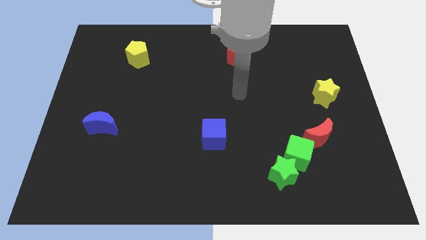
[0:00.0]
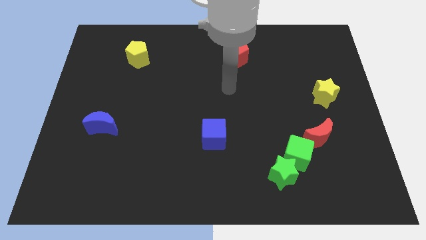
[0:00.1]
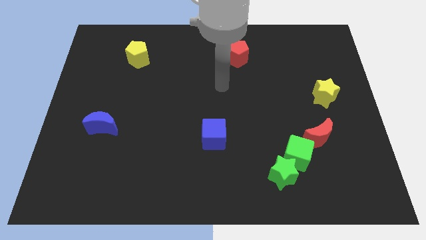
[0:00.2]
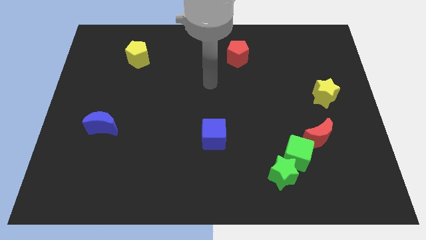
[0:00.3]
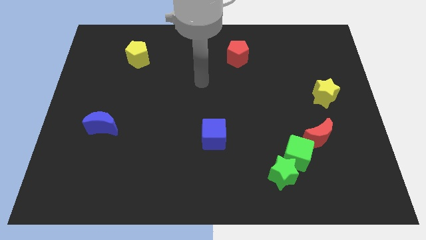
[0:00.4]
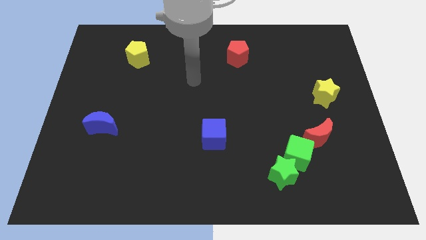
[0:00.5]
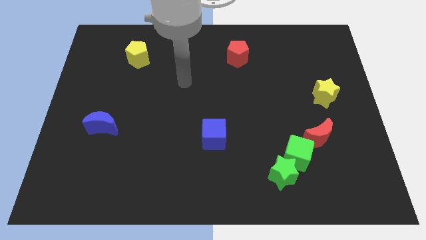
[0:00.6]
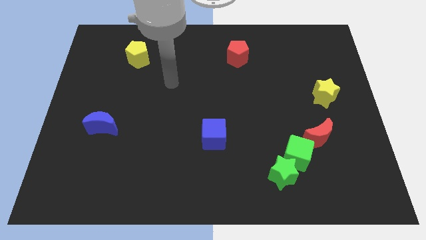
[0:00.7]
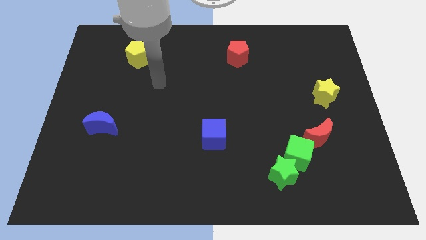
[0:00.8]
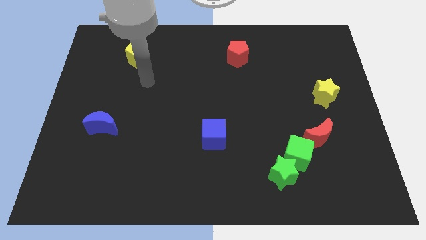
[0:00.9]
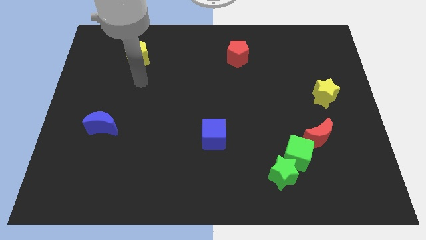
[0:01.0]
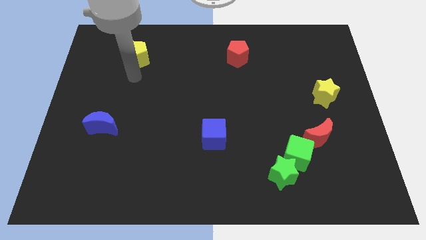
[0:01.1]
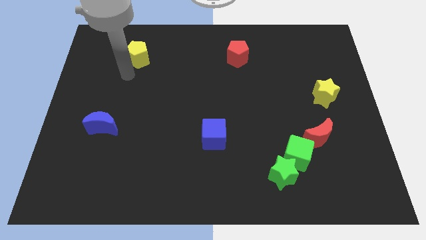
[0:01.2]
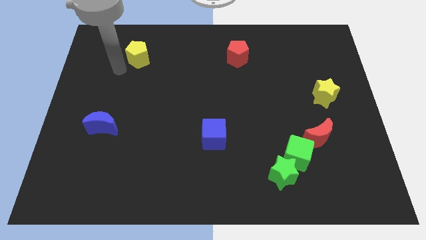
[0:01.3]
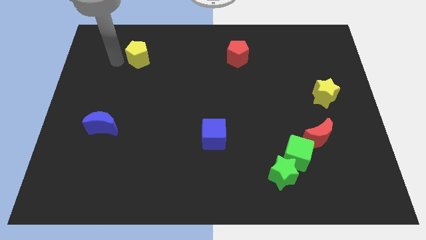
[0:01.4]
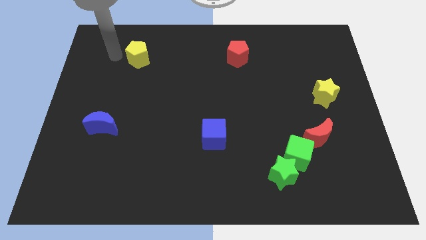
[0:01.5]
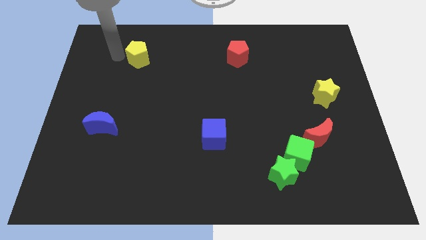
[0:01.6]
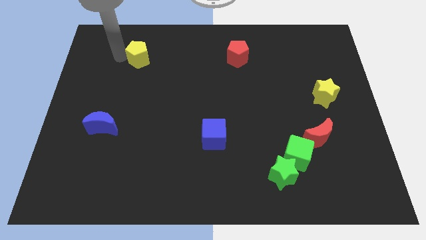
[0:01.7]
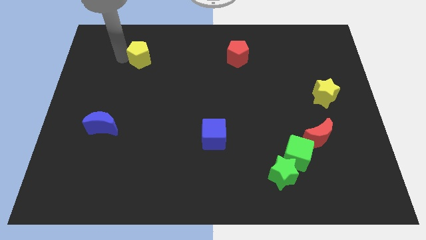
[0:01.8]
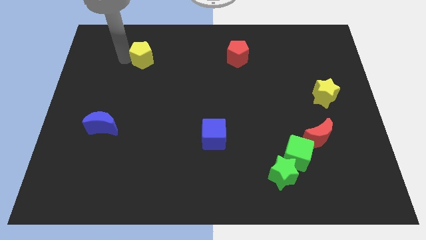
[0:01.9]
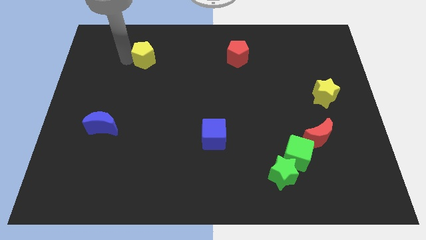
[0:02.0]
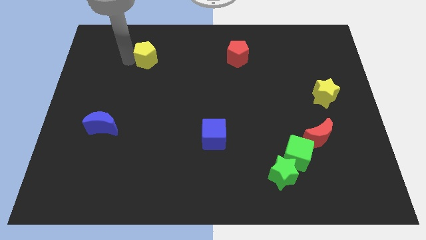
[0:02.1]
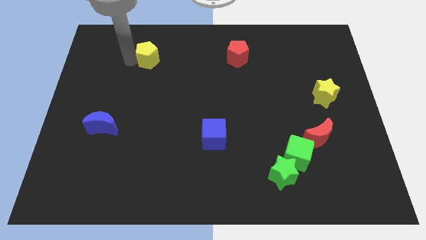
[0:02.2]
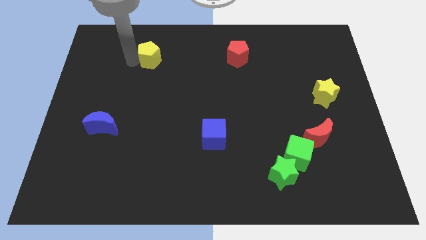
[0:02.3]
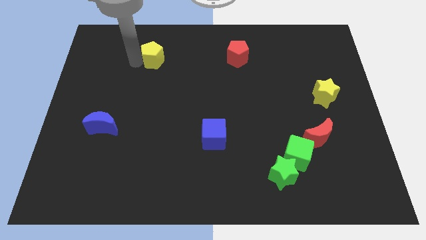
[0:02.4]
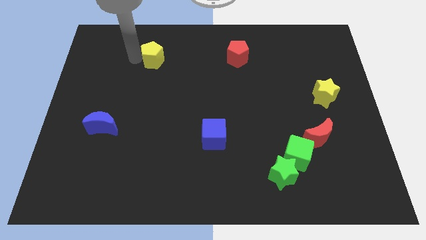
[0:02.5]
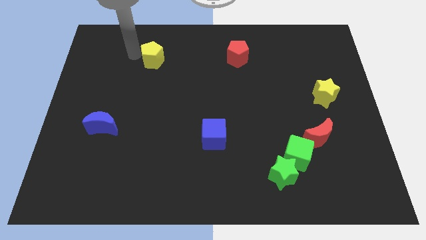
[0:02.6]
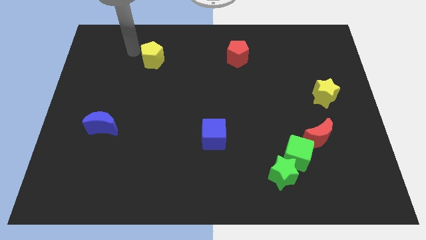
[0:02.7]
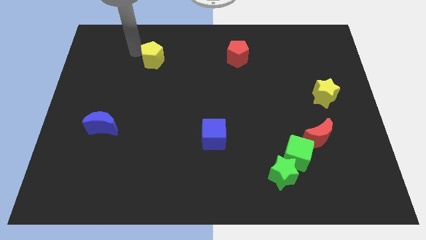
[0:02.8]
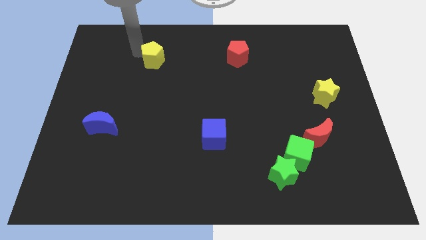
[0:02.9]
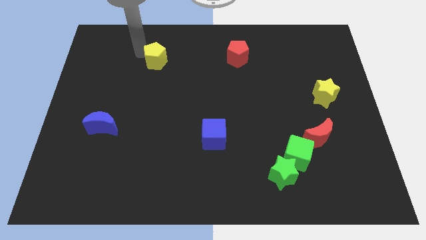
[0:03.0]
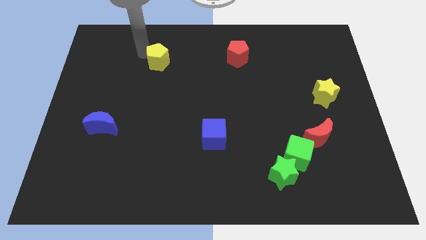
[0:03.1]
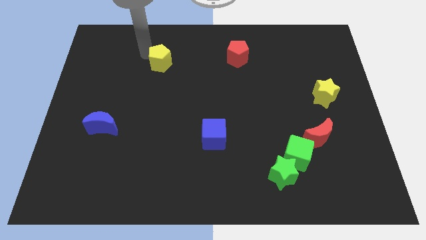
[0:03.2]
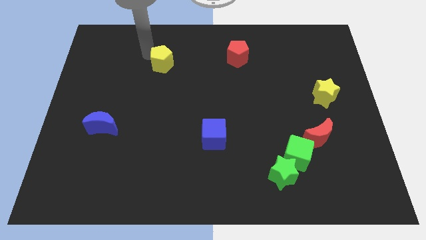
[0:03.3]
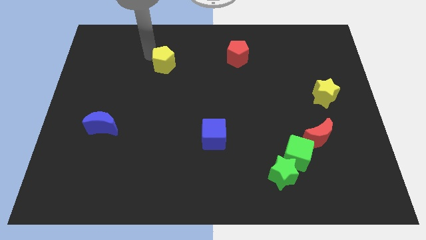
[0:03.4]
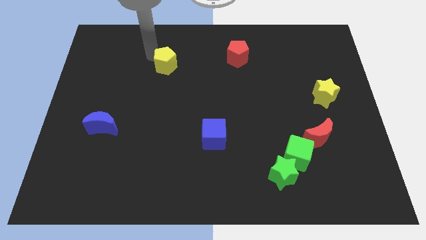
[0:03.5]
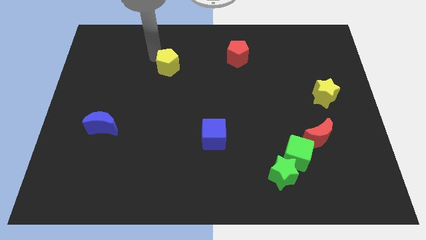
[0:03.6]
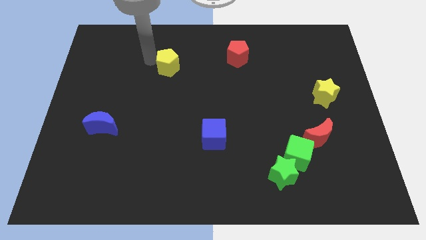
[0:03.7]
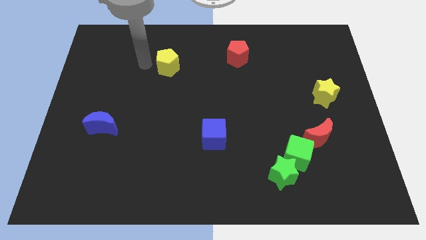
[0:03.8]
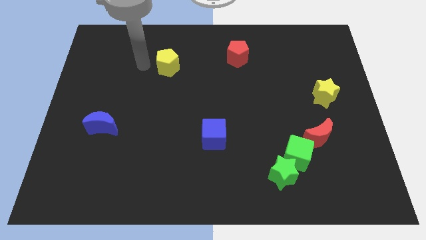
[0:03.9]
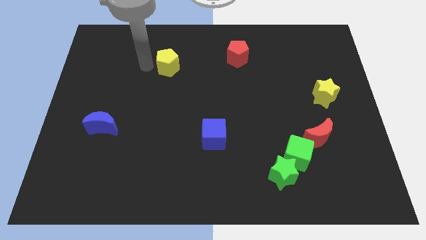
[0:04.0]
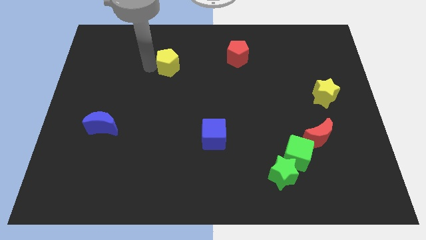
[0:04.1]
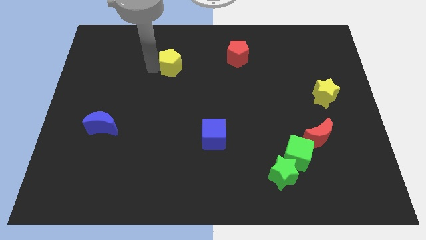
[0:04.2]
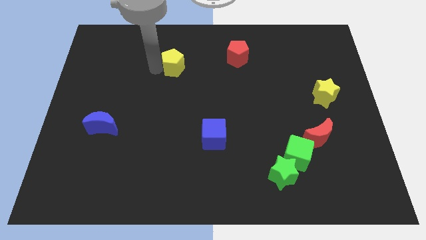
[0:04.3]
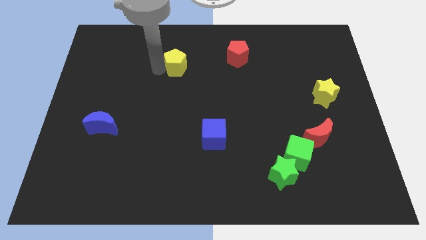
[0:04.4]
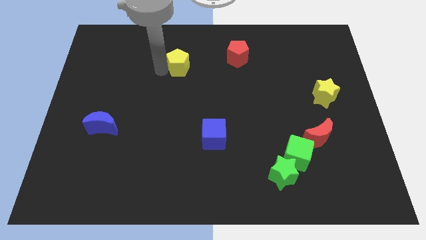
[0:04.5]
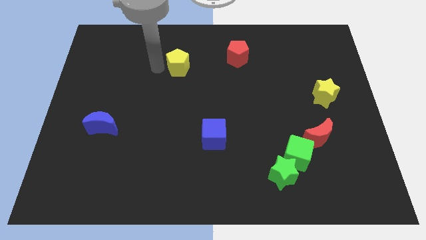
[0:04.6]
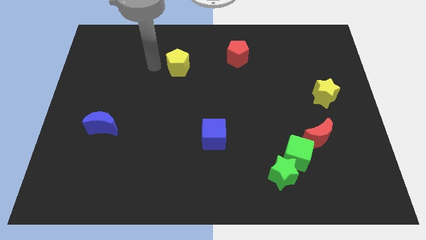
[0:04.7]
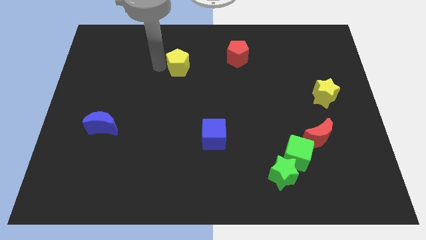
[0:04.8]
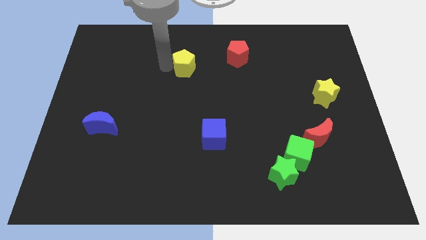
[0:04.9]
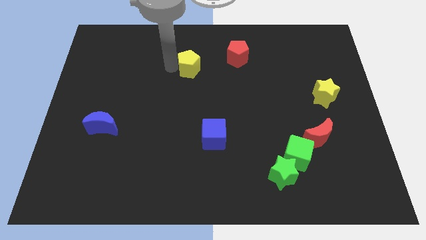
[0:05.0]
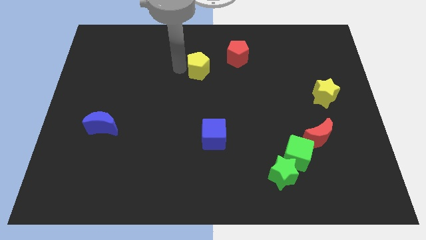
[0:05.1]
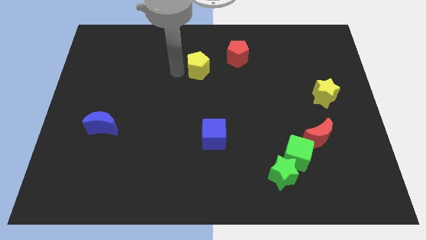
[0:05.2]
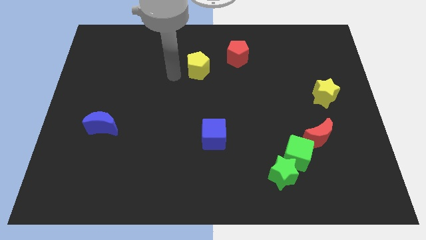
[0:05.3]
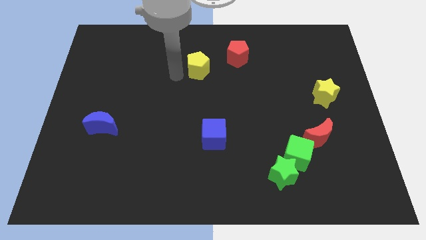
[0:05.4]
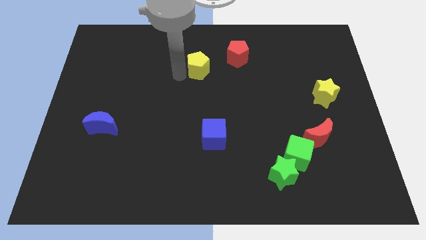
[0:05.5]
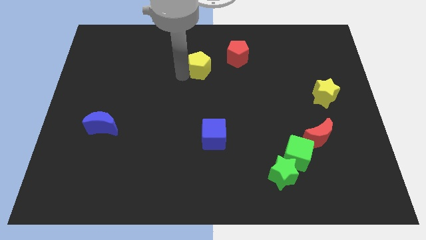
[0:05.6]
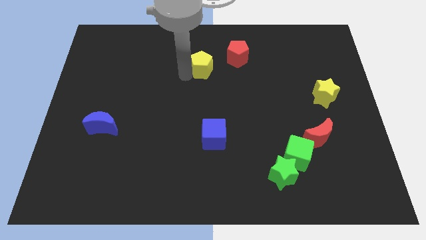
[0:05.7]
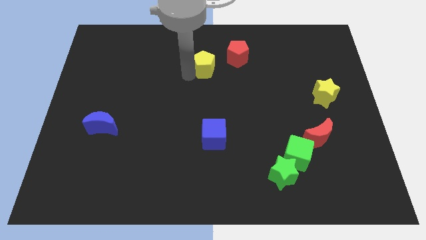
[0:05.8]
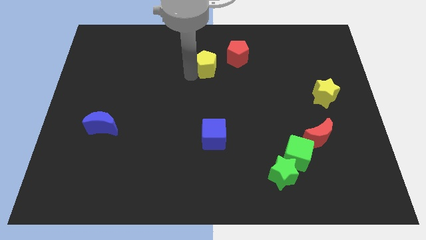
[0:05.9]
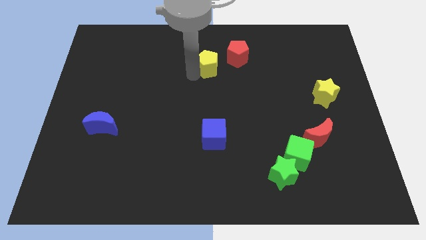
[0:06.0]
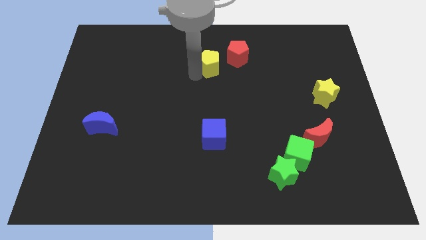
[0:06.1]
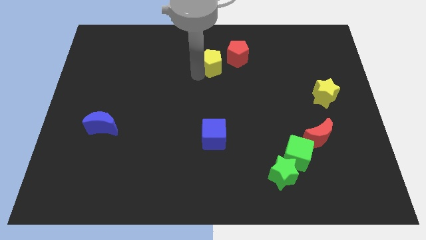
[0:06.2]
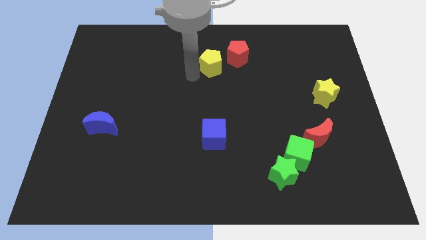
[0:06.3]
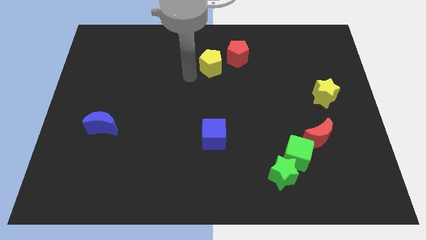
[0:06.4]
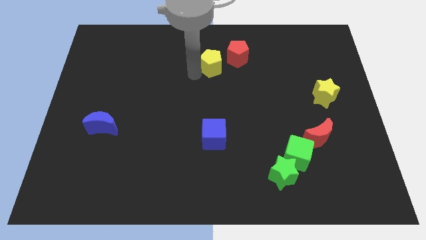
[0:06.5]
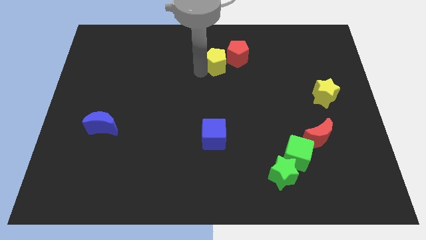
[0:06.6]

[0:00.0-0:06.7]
slide the yellow pentagon close to the red pentagon
